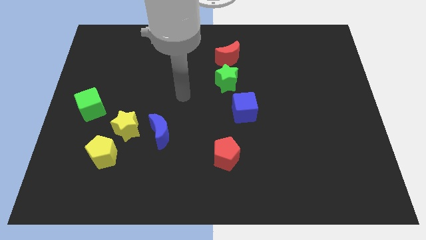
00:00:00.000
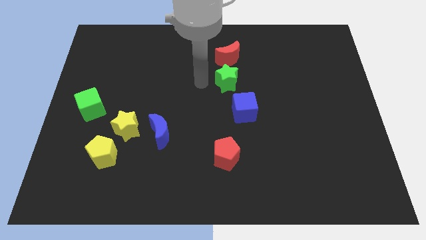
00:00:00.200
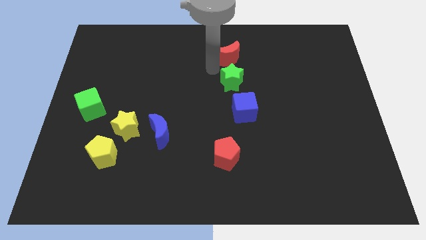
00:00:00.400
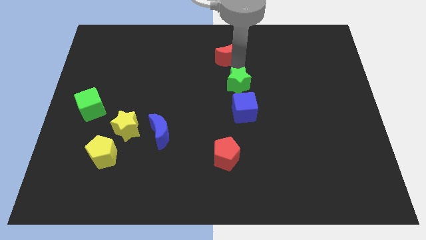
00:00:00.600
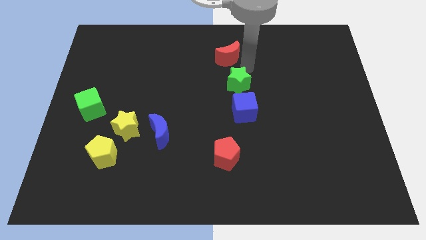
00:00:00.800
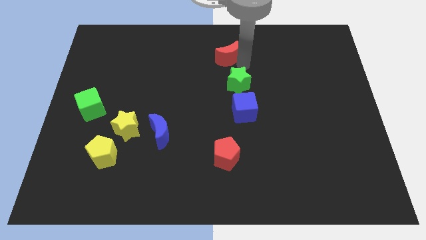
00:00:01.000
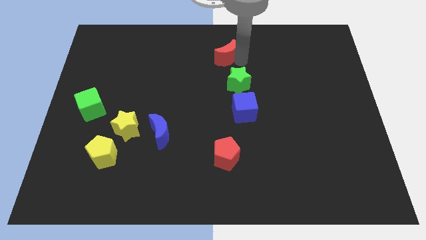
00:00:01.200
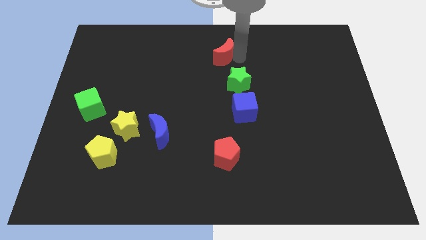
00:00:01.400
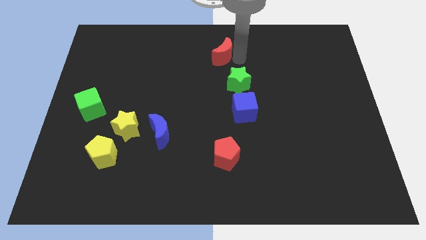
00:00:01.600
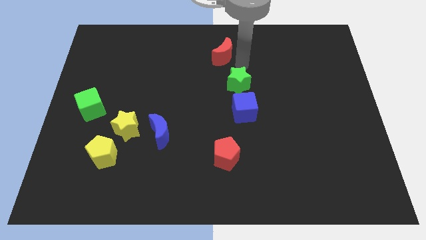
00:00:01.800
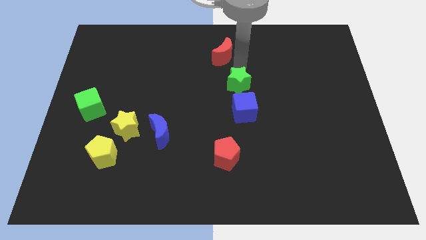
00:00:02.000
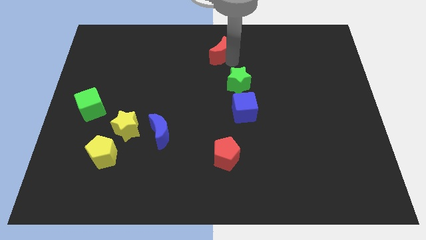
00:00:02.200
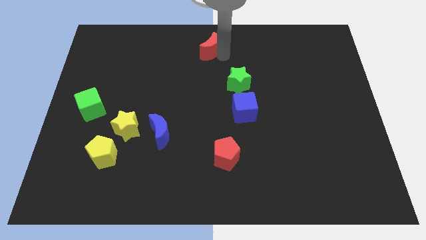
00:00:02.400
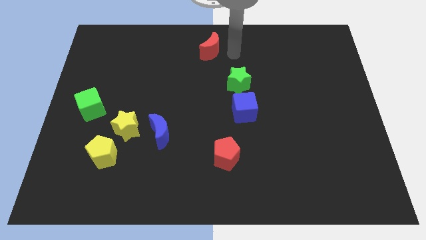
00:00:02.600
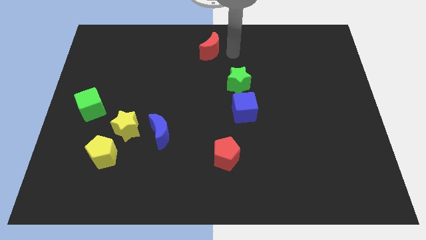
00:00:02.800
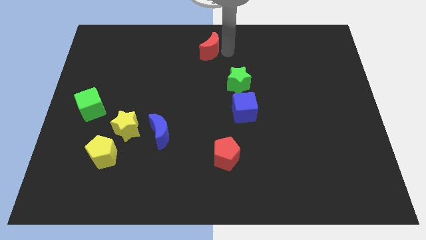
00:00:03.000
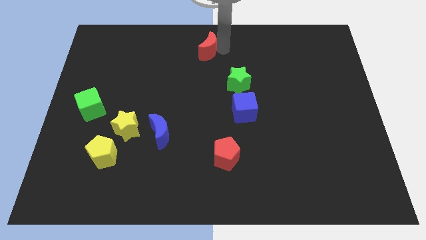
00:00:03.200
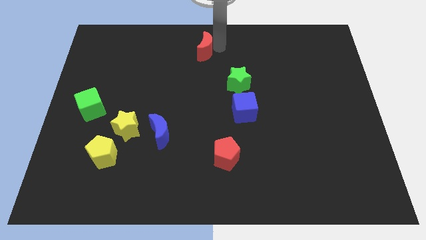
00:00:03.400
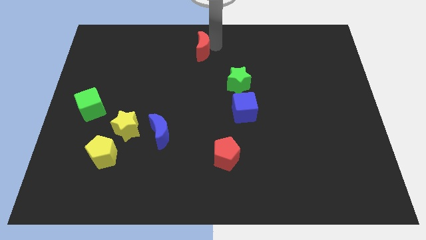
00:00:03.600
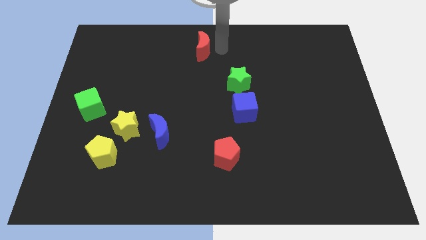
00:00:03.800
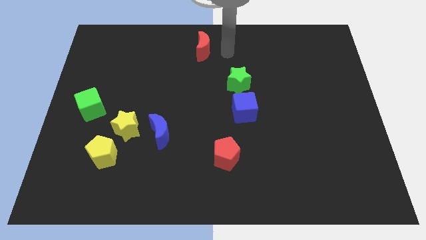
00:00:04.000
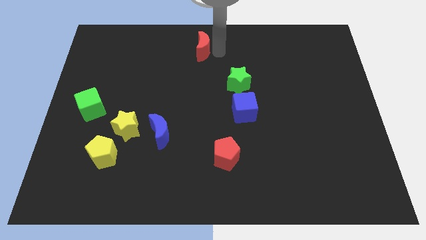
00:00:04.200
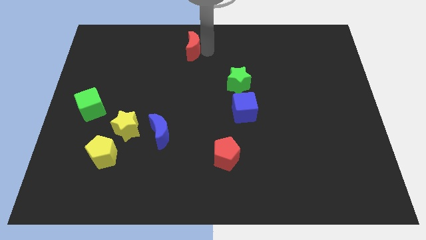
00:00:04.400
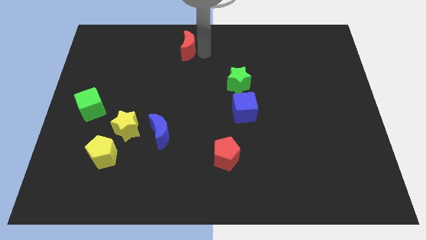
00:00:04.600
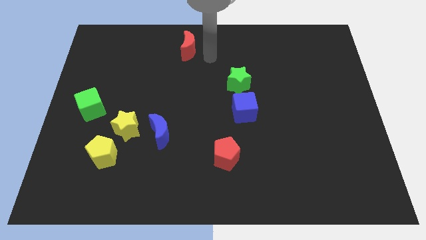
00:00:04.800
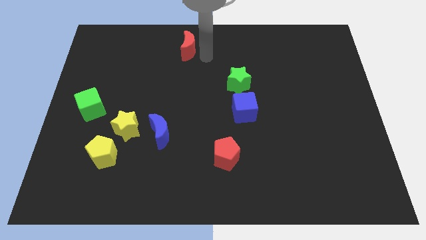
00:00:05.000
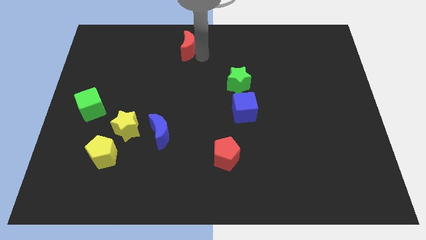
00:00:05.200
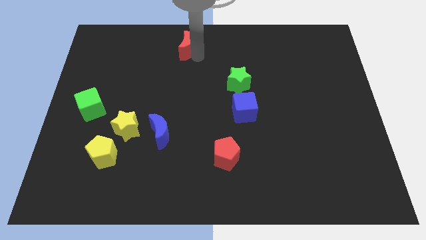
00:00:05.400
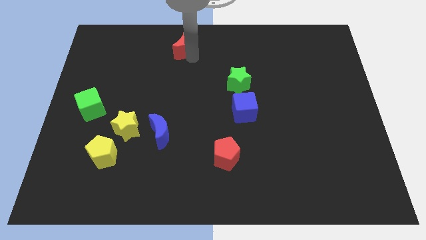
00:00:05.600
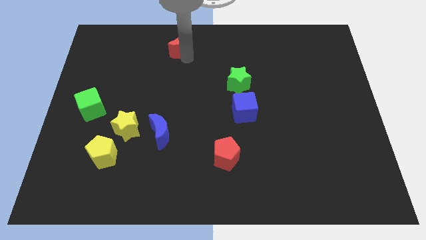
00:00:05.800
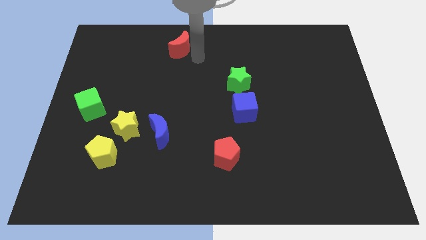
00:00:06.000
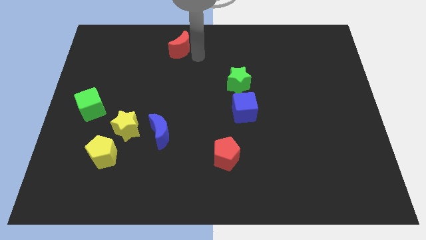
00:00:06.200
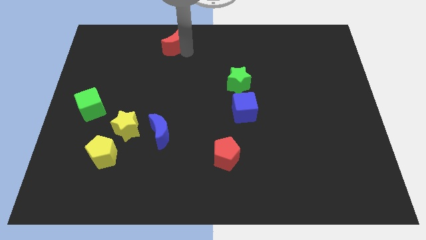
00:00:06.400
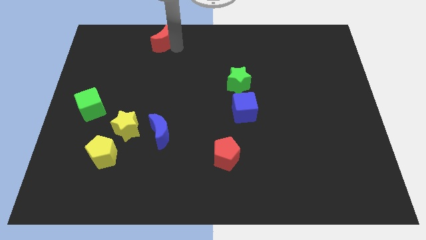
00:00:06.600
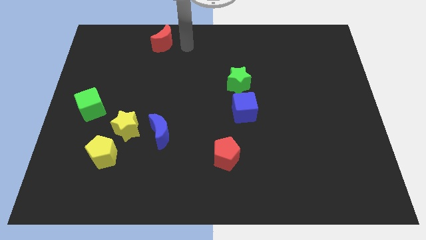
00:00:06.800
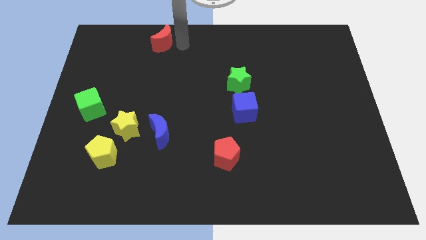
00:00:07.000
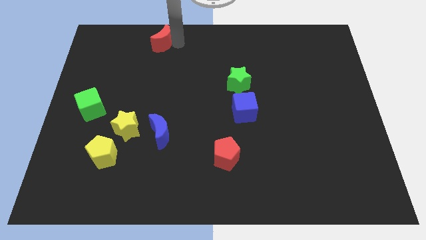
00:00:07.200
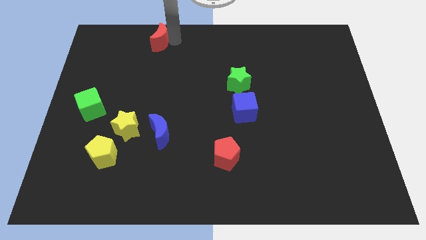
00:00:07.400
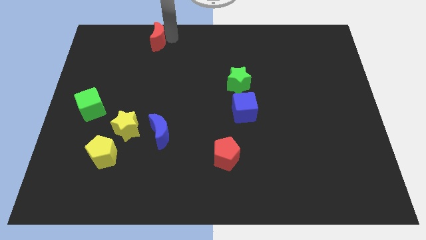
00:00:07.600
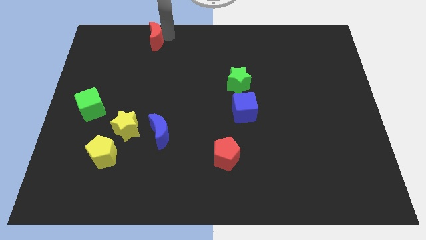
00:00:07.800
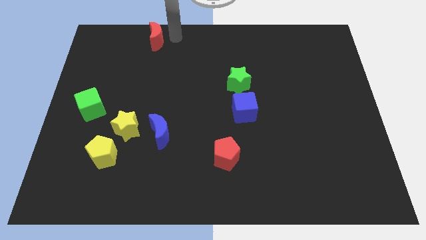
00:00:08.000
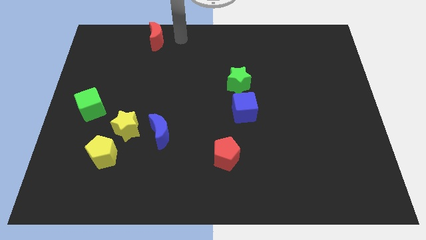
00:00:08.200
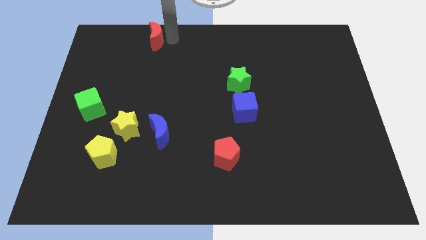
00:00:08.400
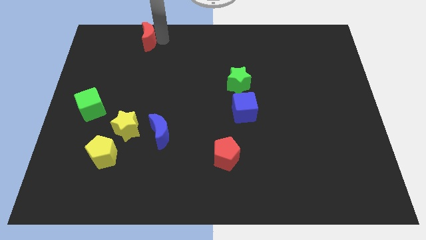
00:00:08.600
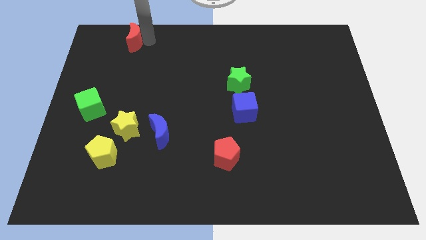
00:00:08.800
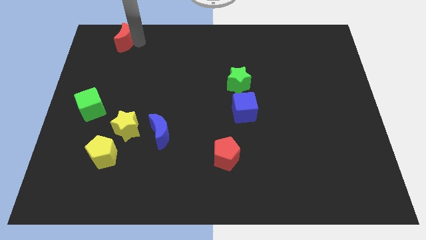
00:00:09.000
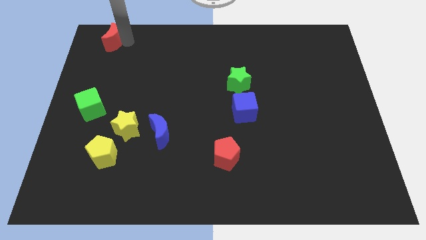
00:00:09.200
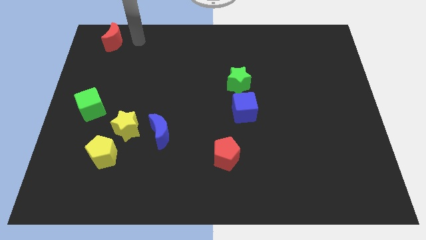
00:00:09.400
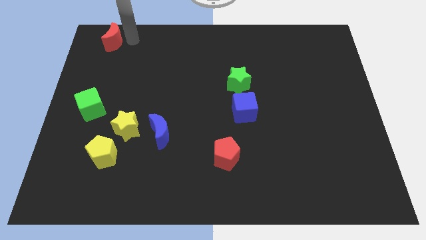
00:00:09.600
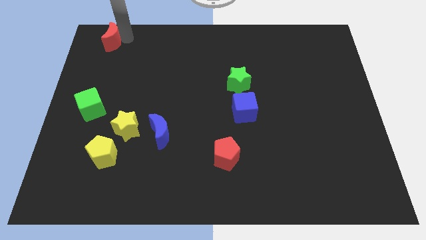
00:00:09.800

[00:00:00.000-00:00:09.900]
put the red moon to the upper left corner

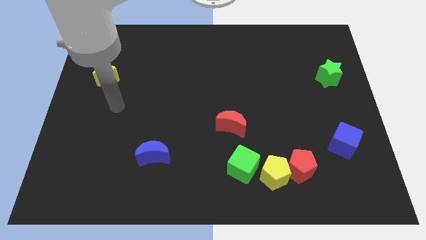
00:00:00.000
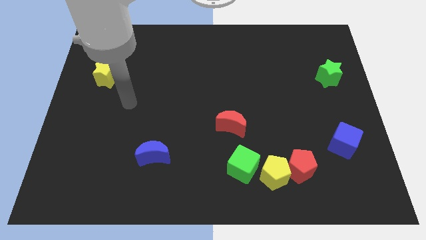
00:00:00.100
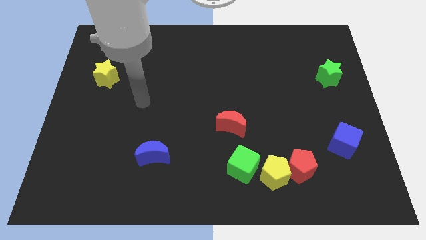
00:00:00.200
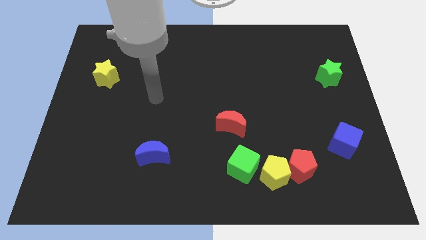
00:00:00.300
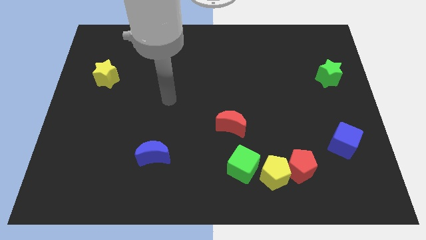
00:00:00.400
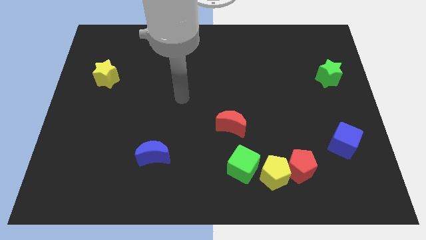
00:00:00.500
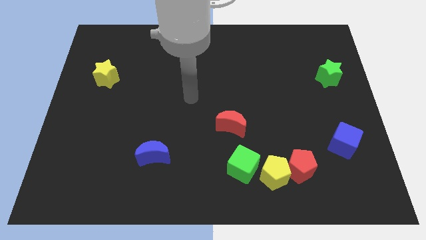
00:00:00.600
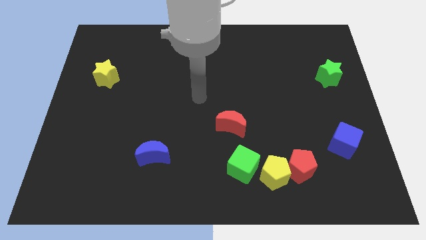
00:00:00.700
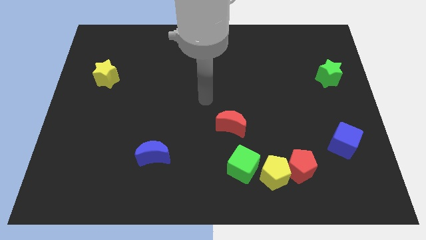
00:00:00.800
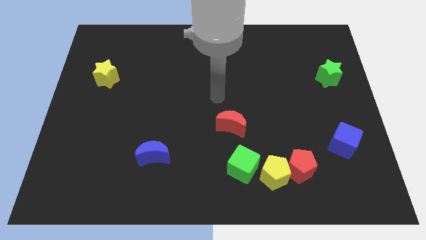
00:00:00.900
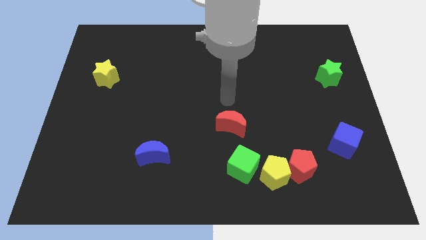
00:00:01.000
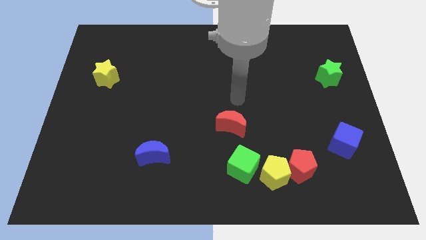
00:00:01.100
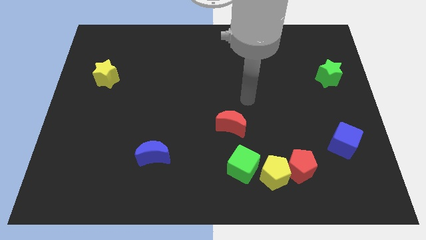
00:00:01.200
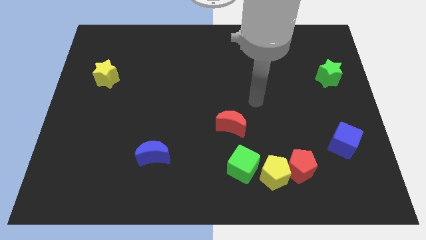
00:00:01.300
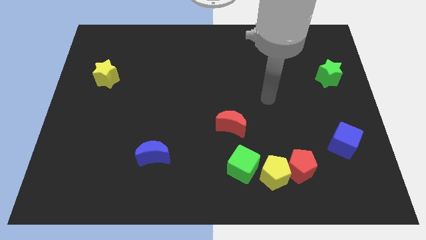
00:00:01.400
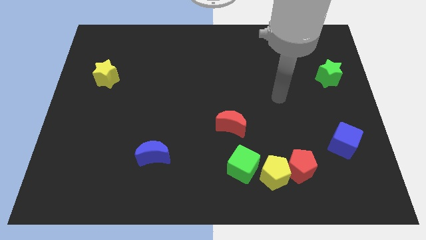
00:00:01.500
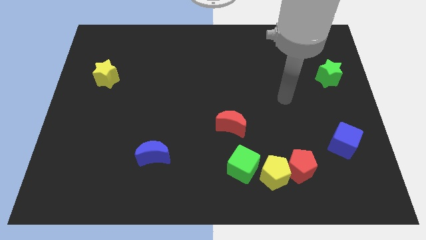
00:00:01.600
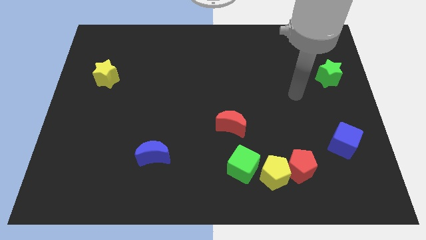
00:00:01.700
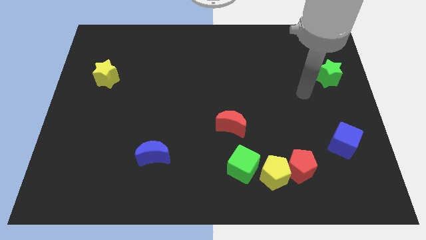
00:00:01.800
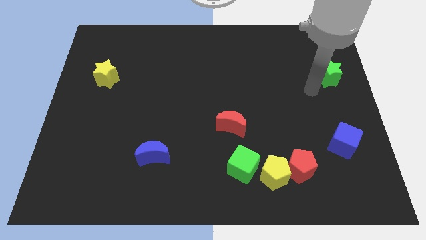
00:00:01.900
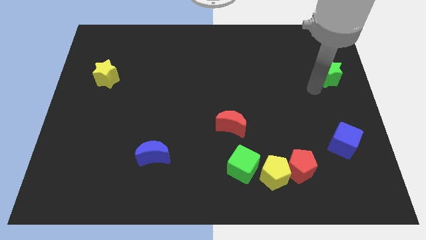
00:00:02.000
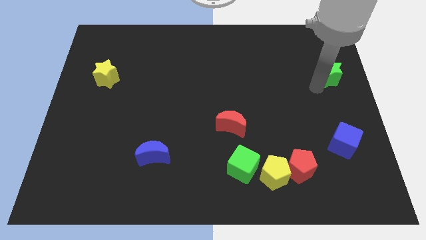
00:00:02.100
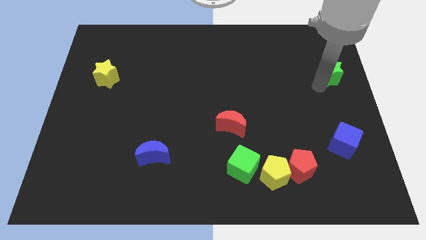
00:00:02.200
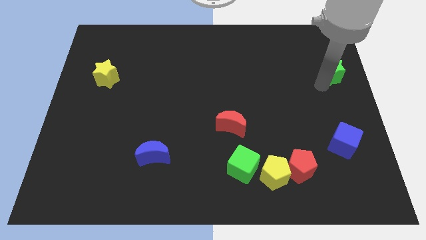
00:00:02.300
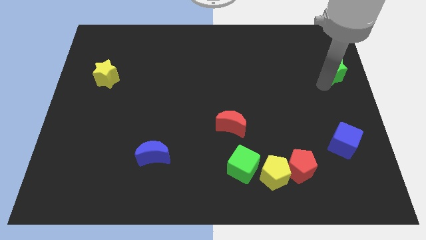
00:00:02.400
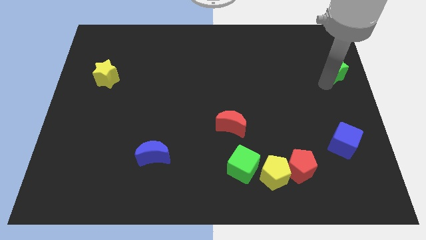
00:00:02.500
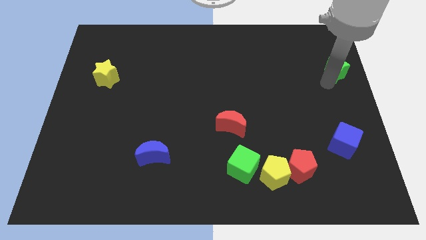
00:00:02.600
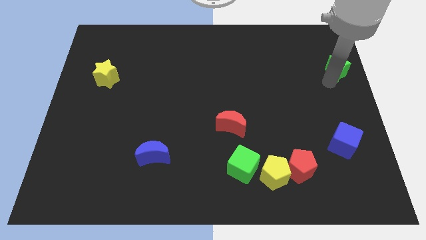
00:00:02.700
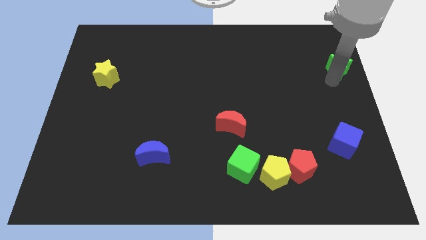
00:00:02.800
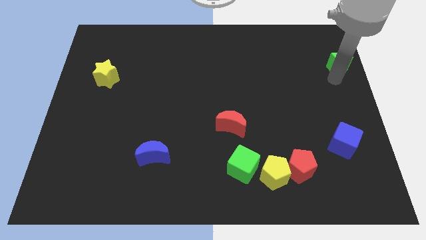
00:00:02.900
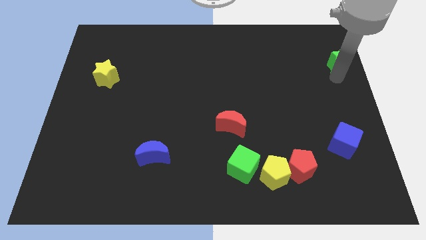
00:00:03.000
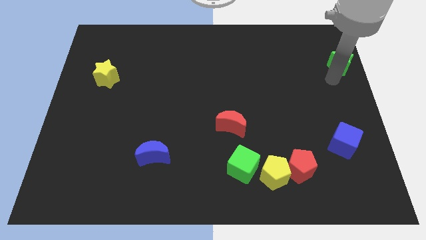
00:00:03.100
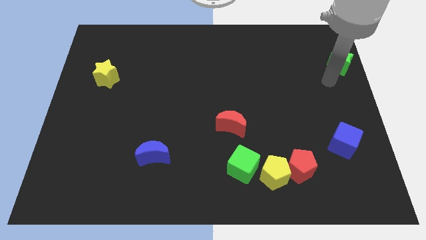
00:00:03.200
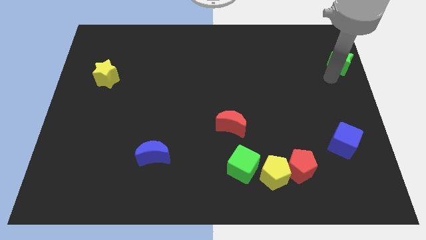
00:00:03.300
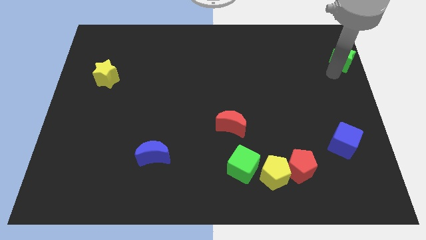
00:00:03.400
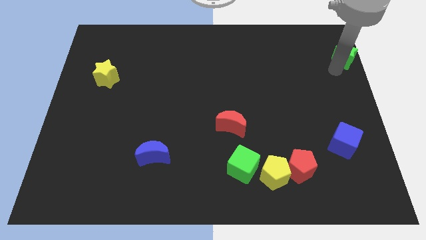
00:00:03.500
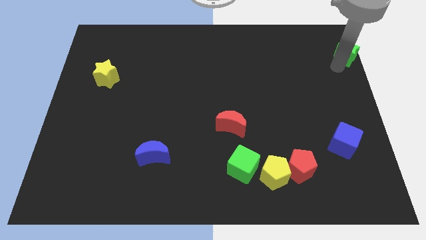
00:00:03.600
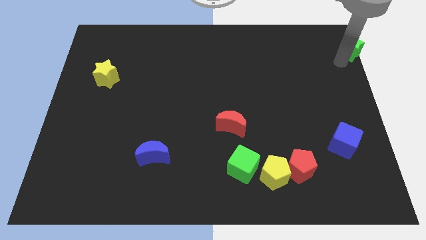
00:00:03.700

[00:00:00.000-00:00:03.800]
slide the green star to the upper right corner
